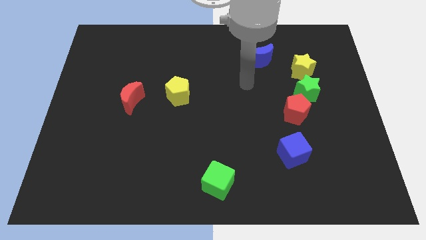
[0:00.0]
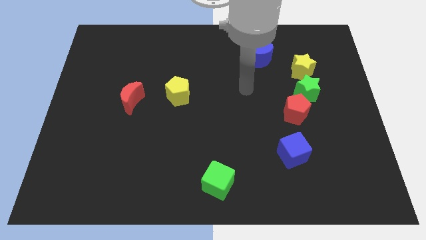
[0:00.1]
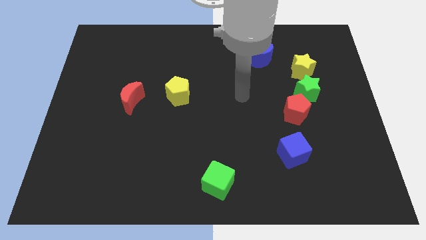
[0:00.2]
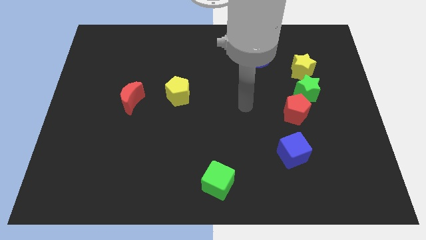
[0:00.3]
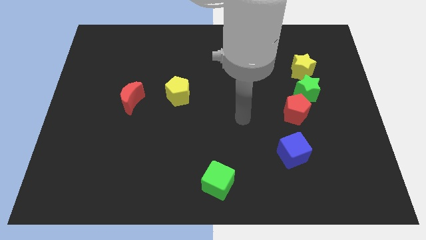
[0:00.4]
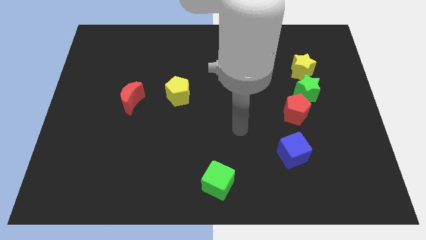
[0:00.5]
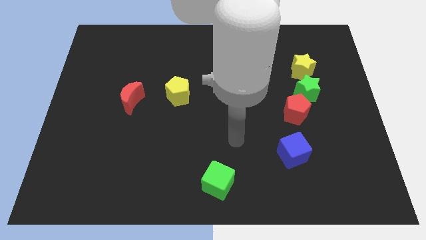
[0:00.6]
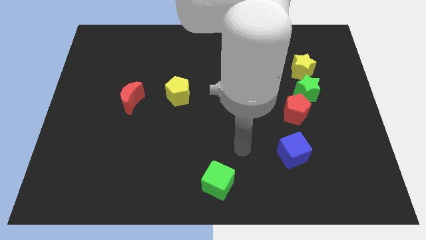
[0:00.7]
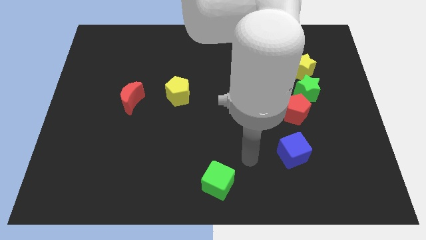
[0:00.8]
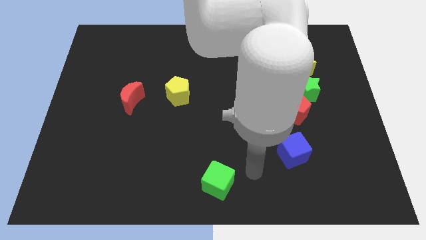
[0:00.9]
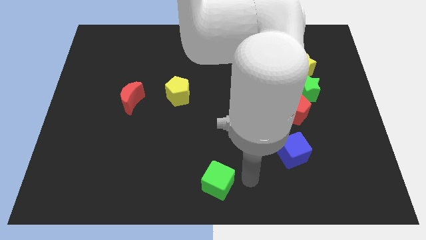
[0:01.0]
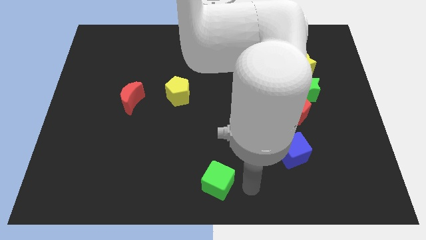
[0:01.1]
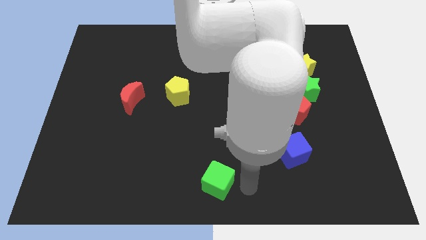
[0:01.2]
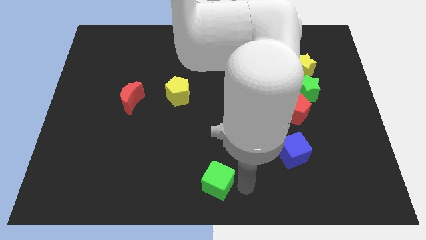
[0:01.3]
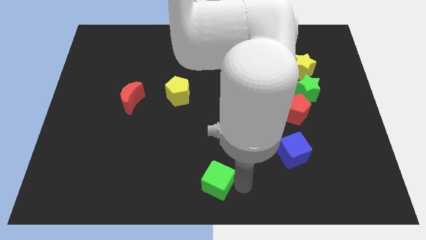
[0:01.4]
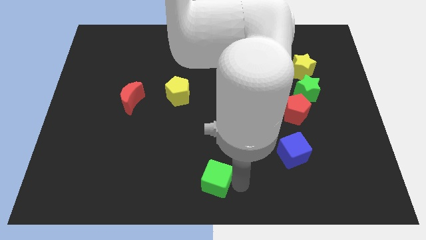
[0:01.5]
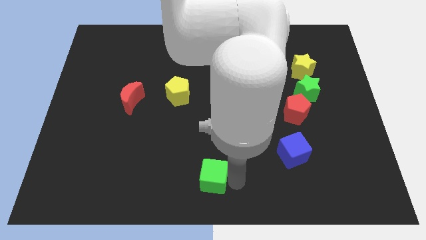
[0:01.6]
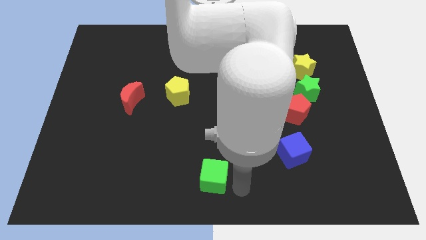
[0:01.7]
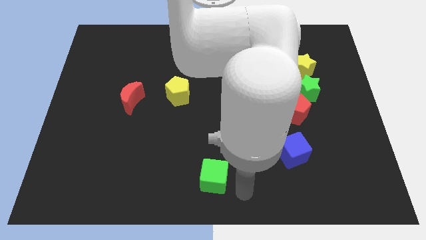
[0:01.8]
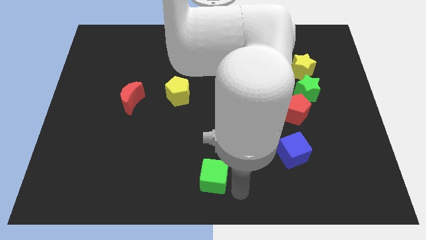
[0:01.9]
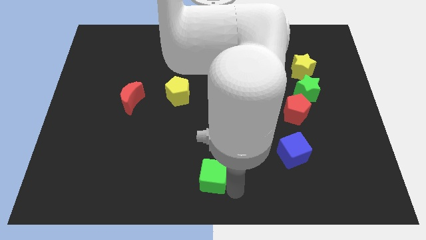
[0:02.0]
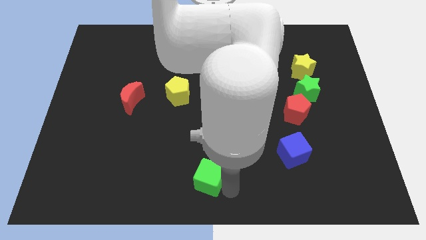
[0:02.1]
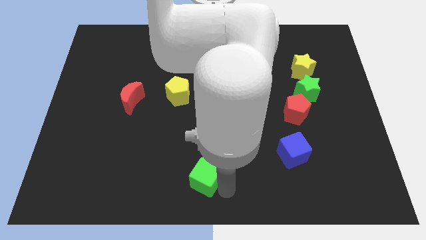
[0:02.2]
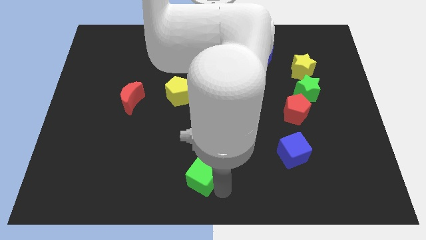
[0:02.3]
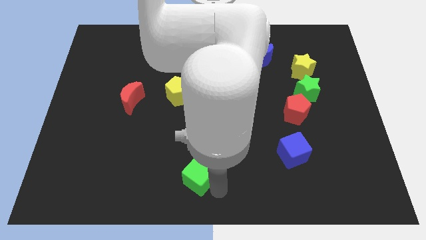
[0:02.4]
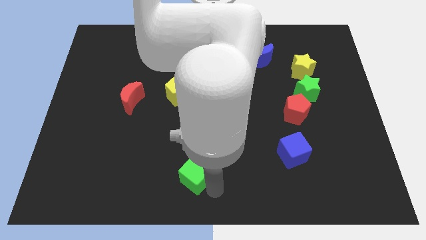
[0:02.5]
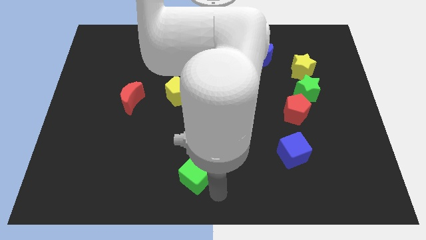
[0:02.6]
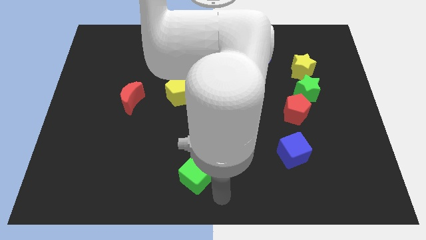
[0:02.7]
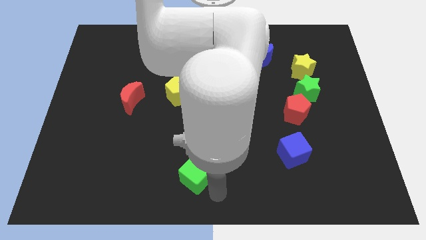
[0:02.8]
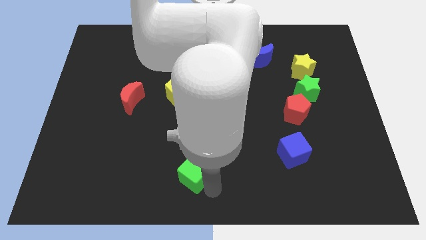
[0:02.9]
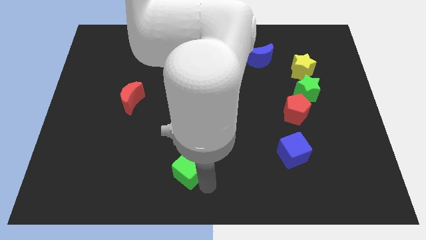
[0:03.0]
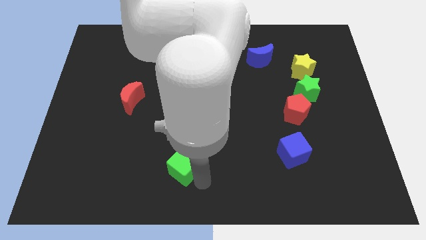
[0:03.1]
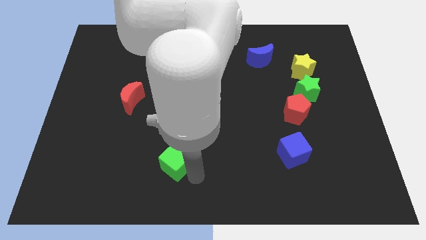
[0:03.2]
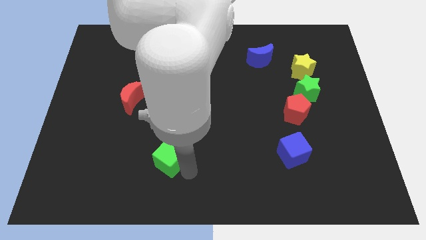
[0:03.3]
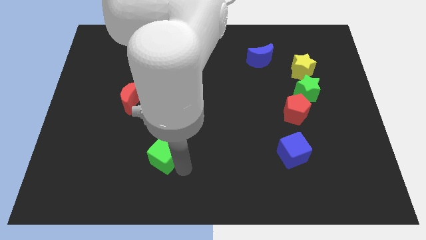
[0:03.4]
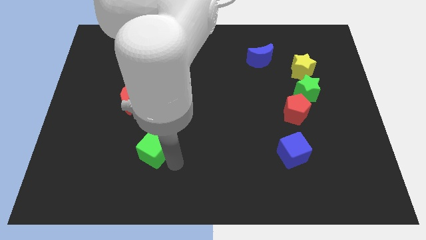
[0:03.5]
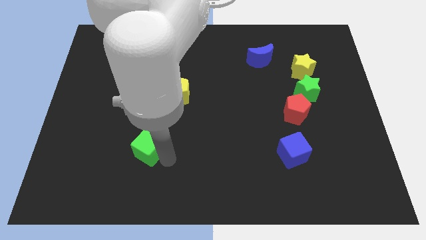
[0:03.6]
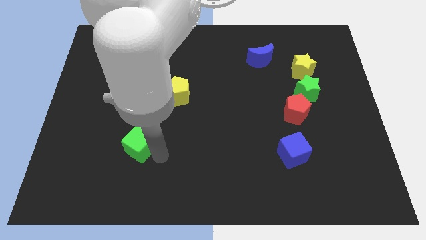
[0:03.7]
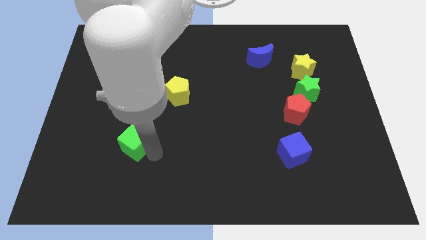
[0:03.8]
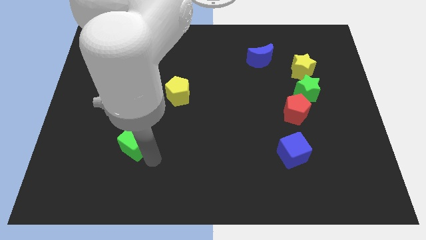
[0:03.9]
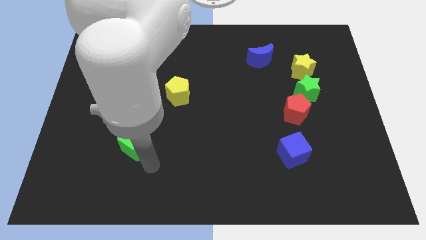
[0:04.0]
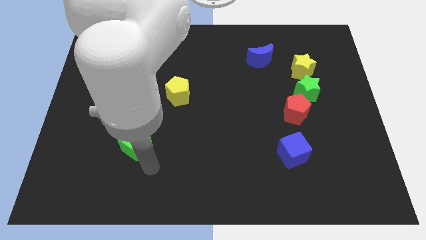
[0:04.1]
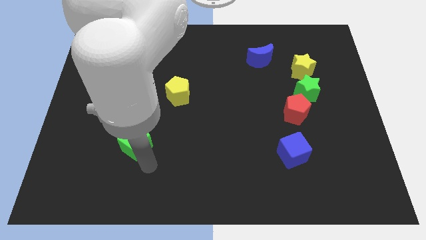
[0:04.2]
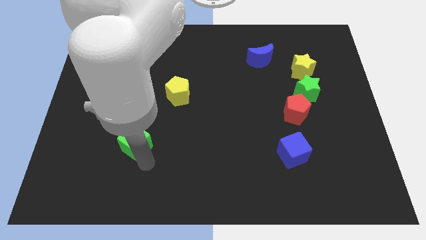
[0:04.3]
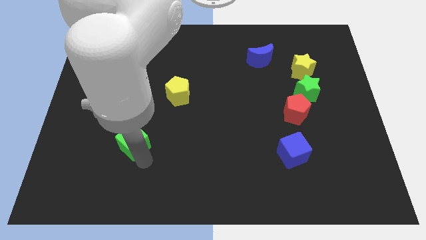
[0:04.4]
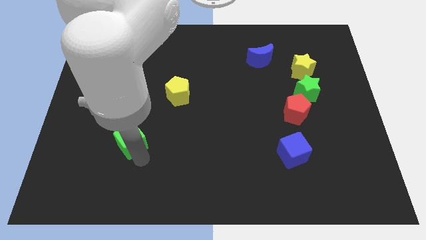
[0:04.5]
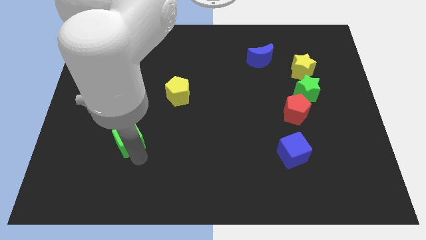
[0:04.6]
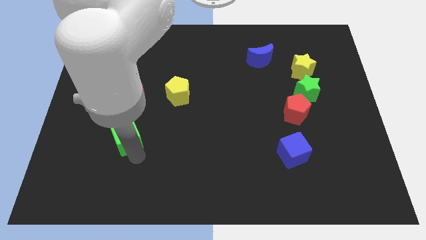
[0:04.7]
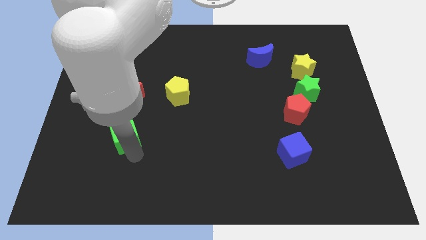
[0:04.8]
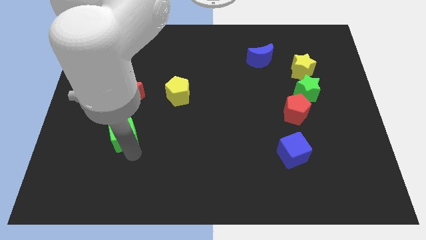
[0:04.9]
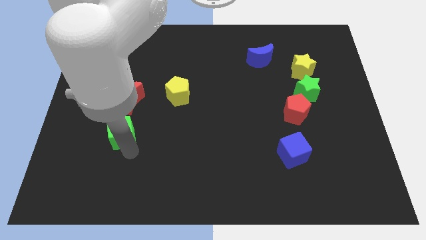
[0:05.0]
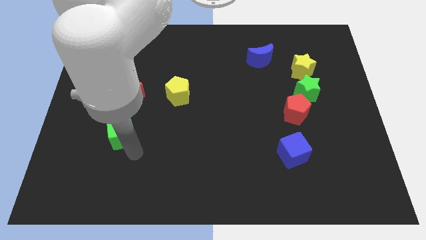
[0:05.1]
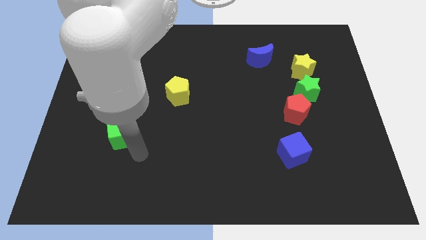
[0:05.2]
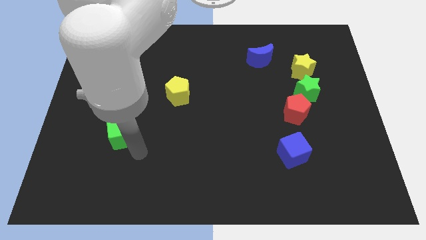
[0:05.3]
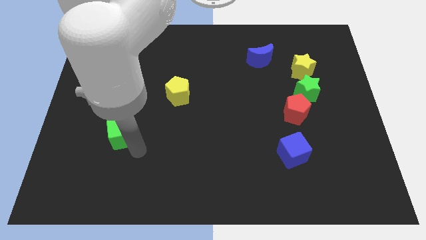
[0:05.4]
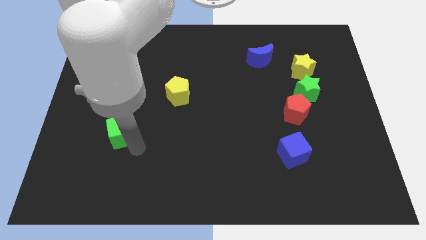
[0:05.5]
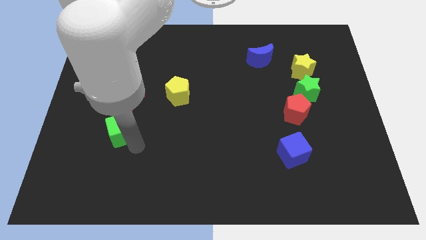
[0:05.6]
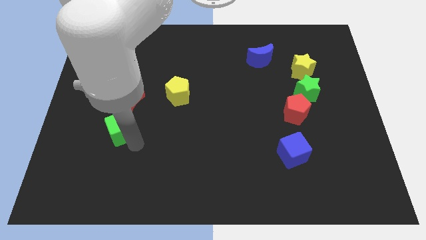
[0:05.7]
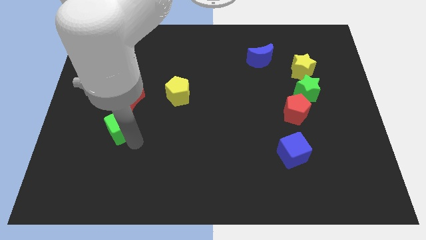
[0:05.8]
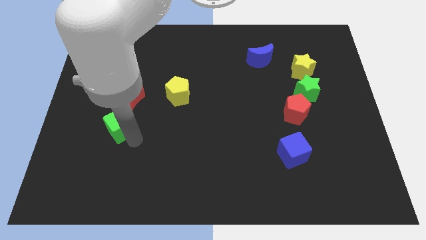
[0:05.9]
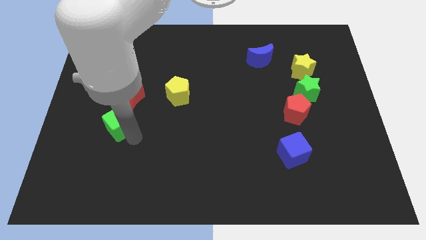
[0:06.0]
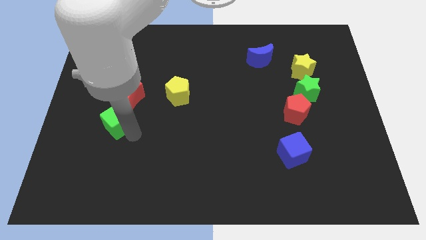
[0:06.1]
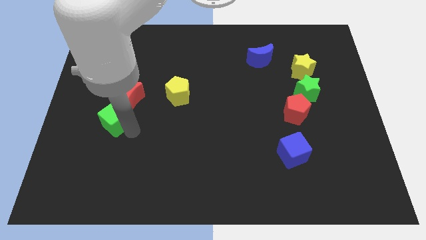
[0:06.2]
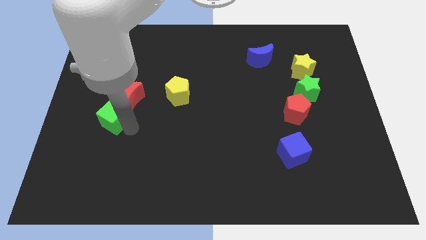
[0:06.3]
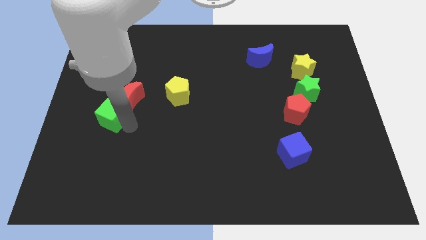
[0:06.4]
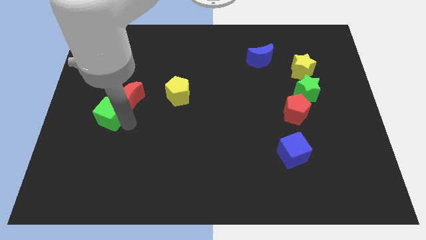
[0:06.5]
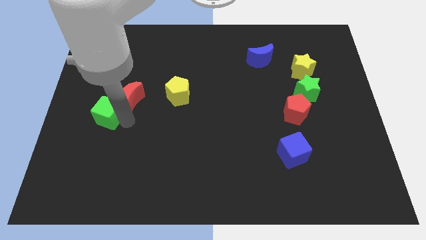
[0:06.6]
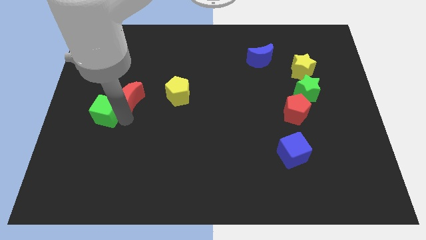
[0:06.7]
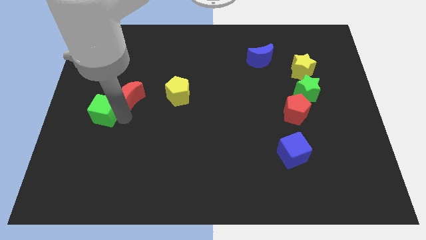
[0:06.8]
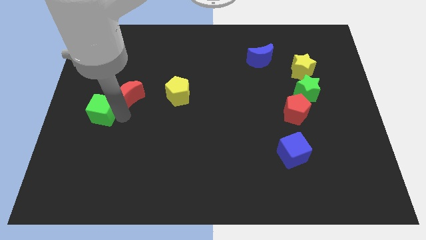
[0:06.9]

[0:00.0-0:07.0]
move the green cube to the center left

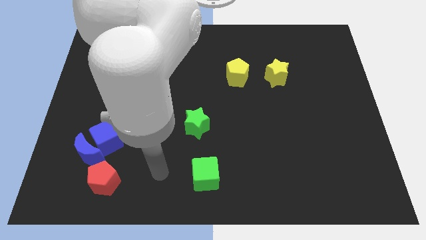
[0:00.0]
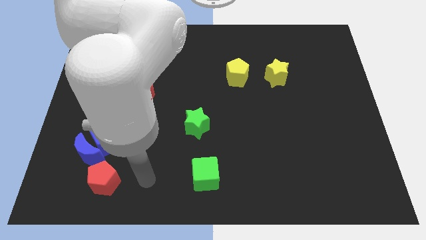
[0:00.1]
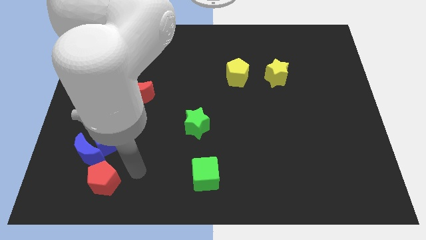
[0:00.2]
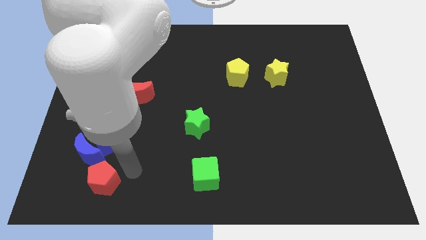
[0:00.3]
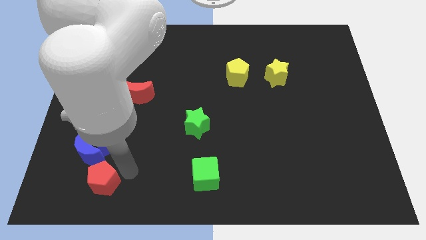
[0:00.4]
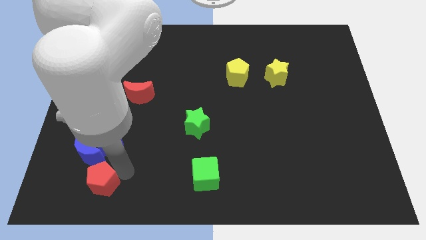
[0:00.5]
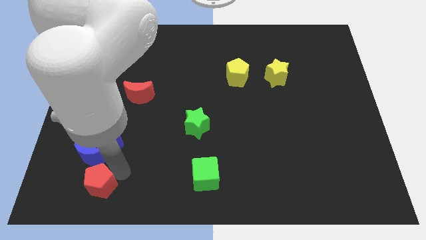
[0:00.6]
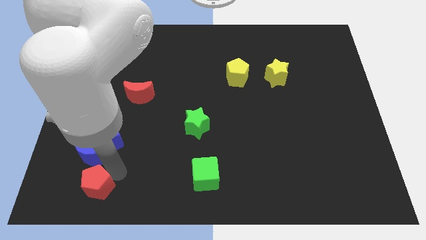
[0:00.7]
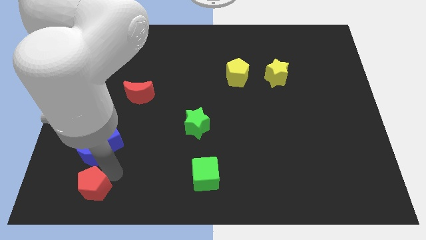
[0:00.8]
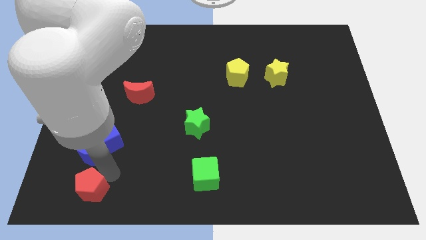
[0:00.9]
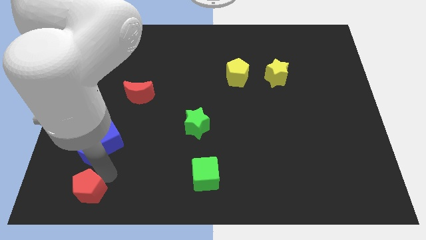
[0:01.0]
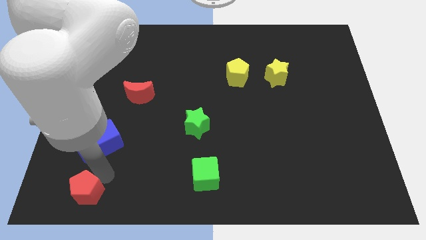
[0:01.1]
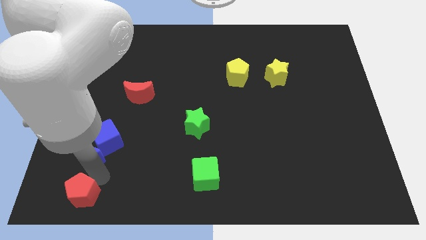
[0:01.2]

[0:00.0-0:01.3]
push the red pentagon to the bottom left
